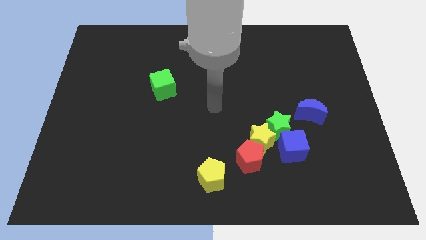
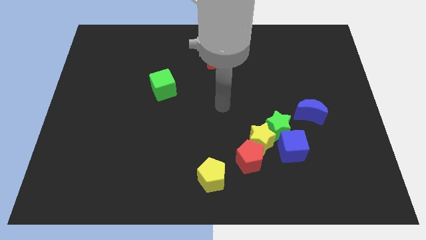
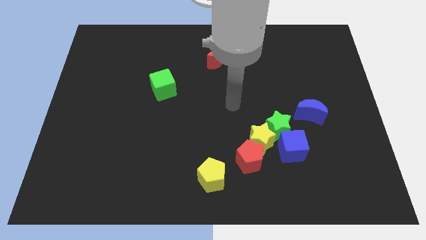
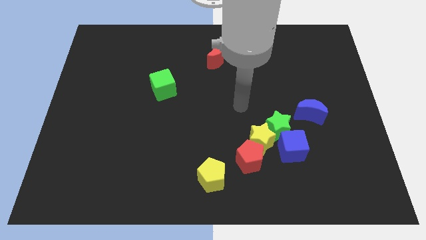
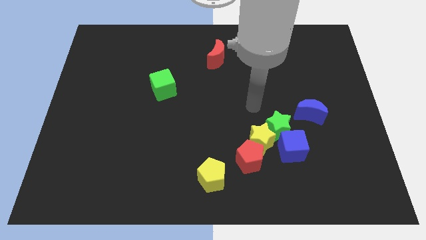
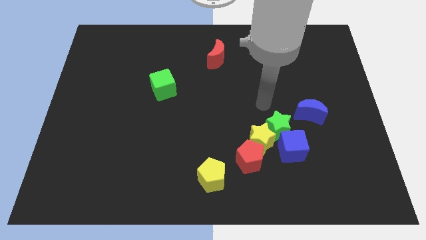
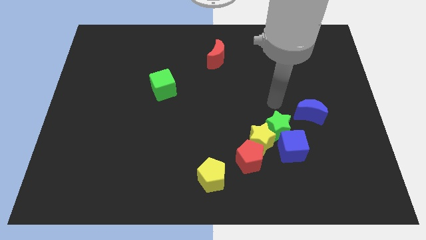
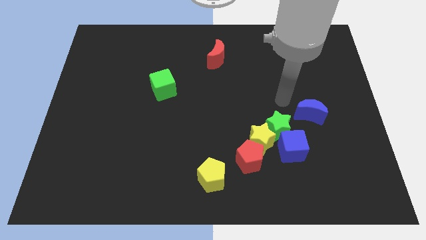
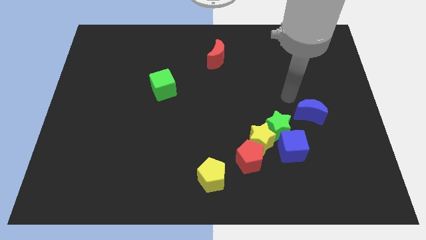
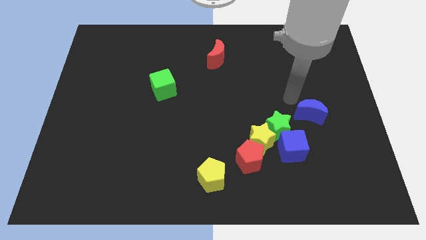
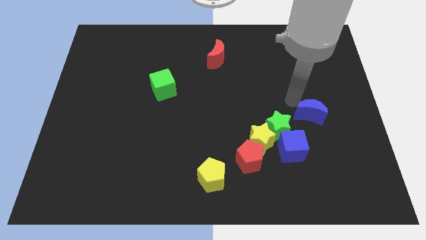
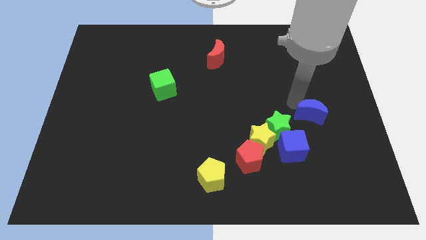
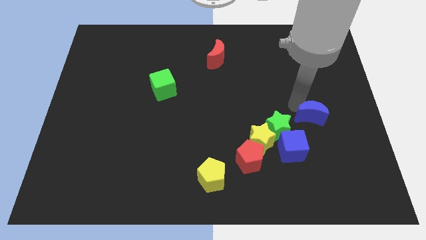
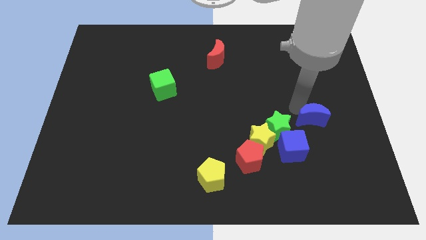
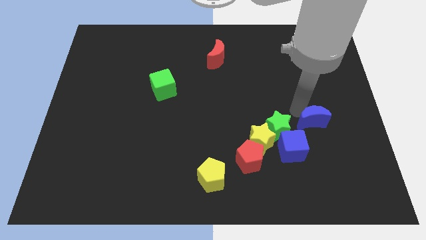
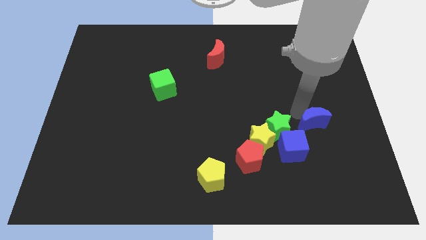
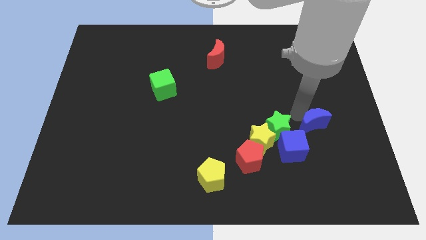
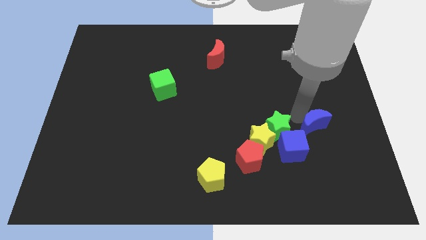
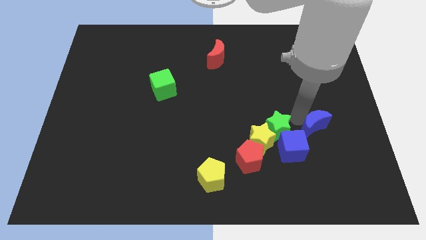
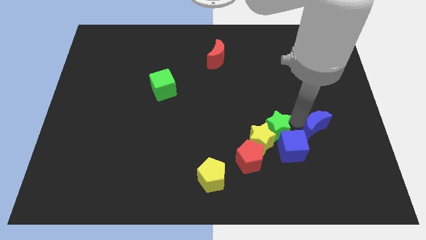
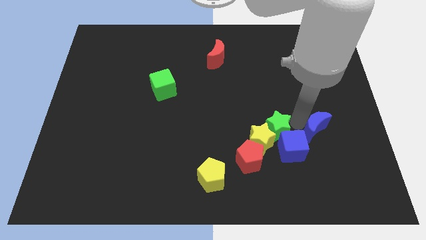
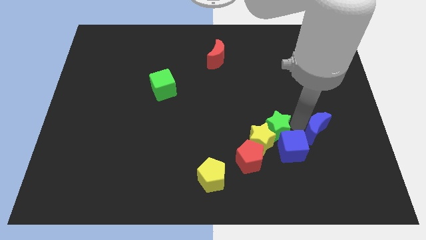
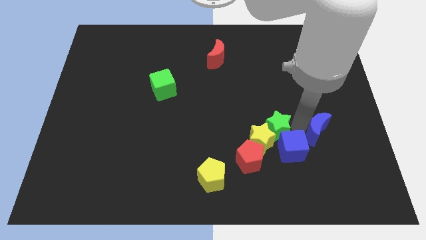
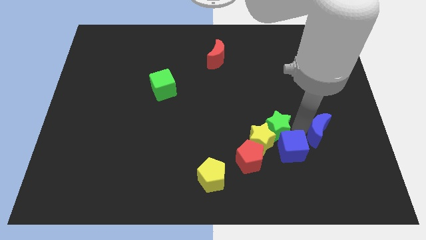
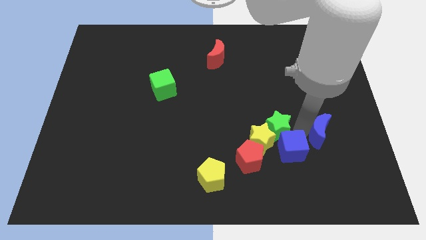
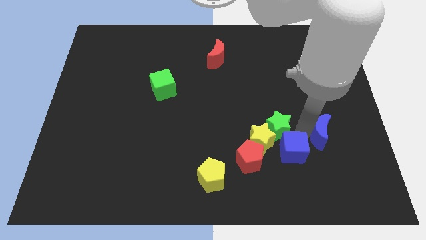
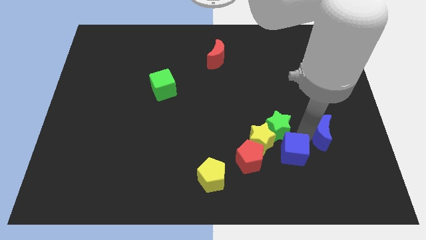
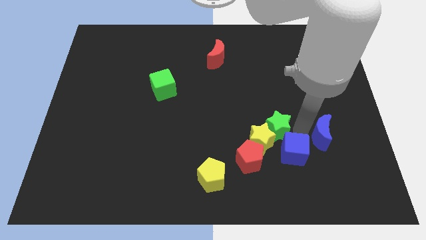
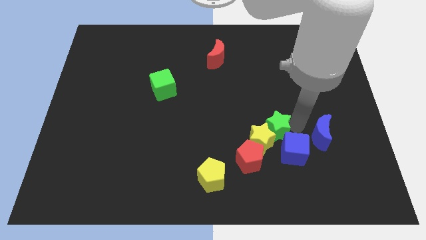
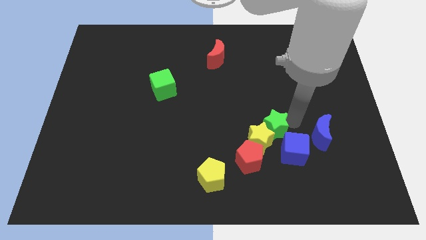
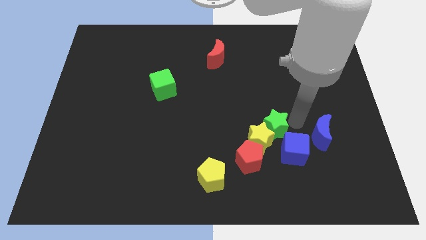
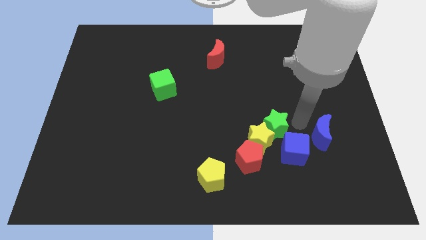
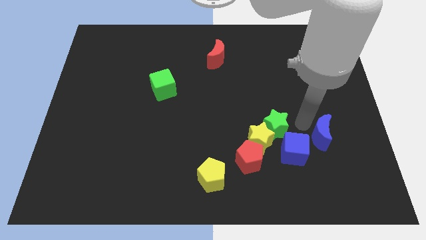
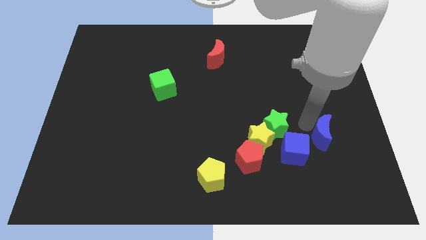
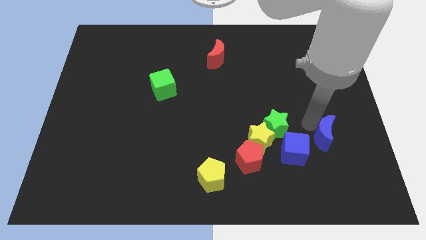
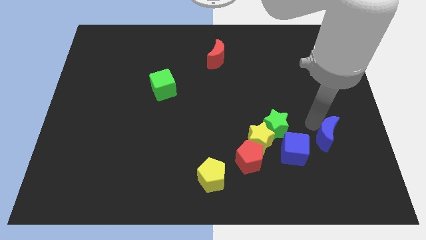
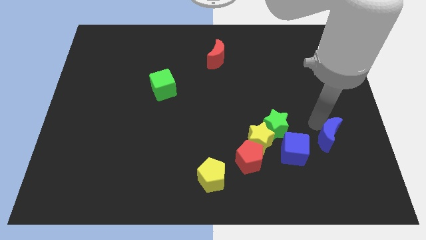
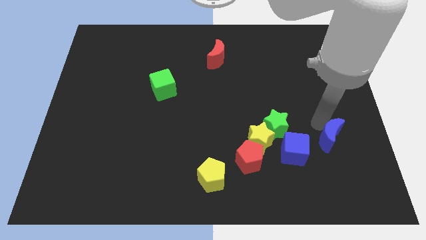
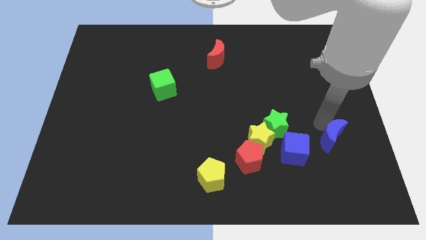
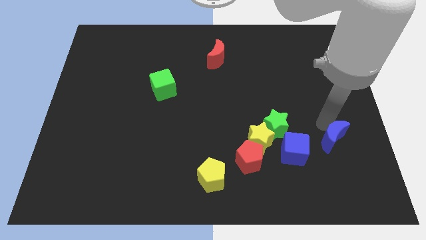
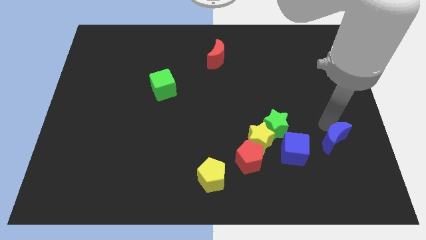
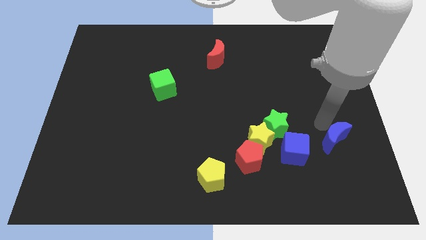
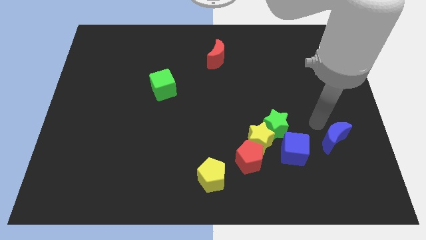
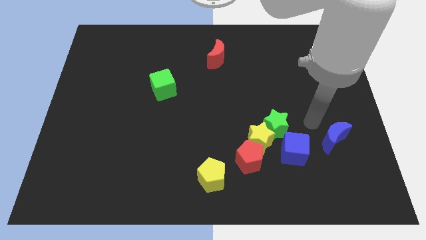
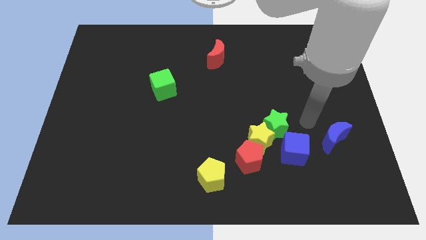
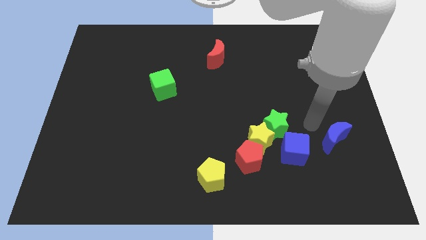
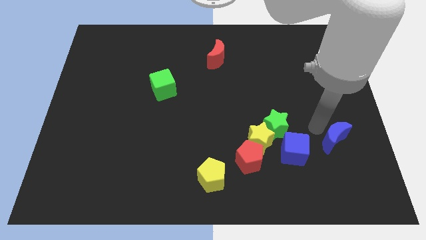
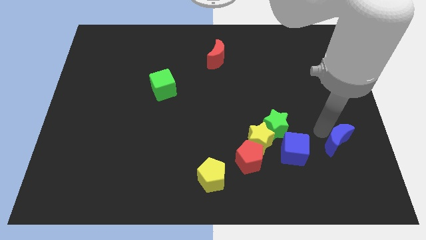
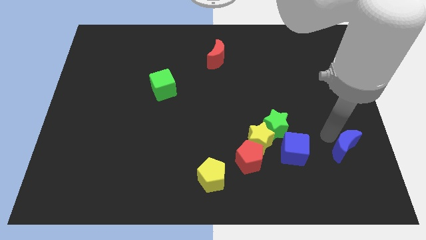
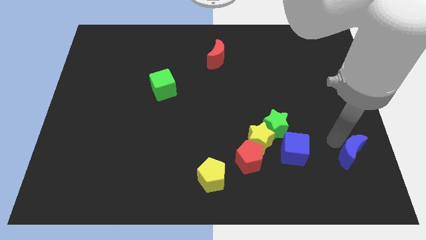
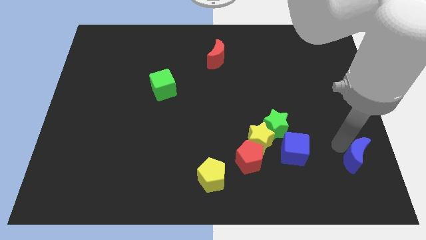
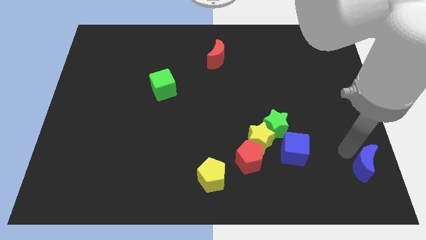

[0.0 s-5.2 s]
slide the blue moon to the lower right corner

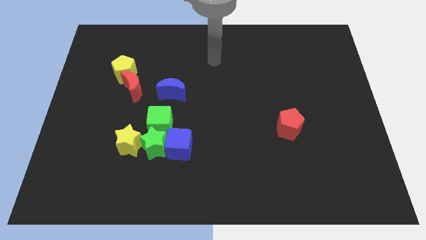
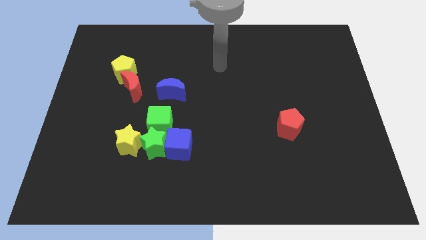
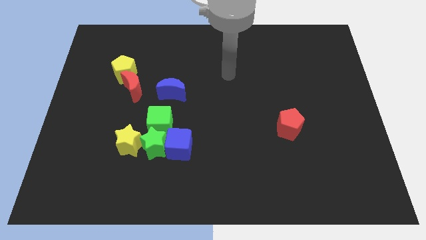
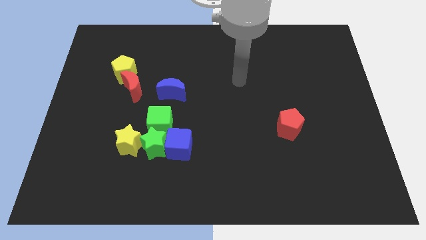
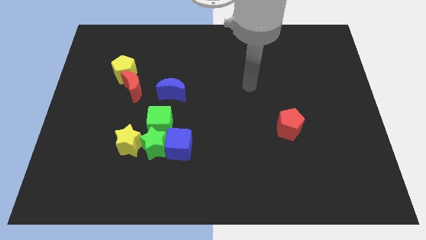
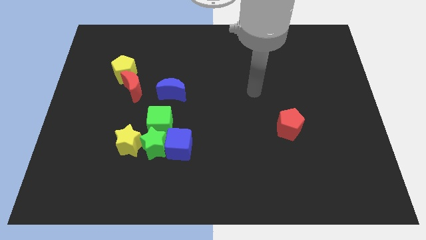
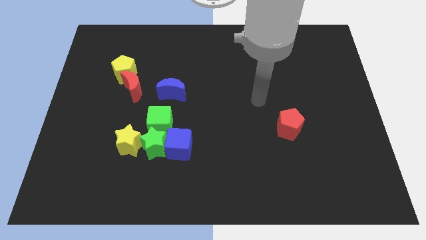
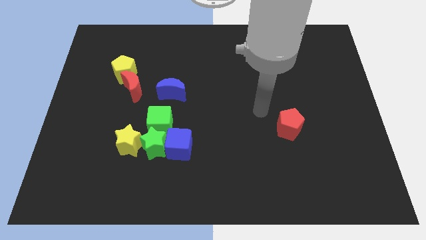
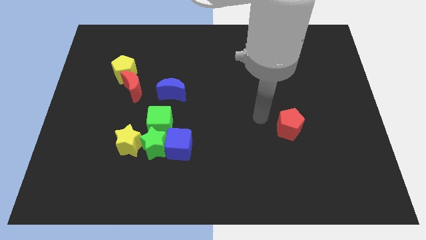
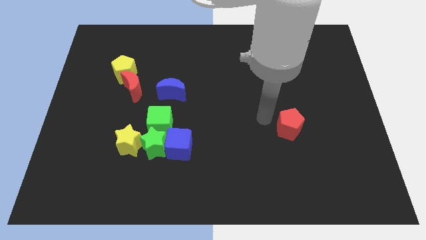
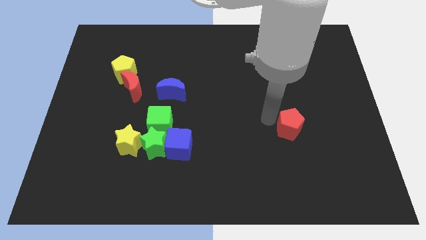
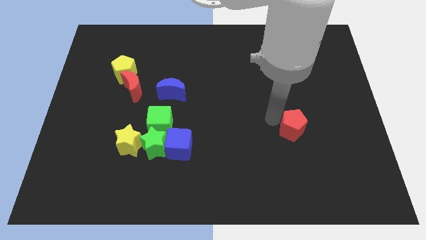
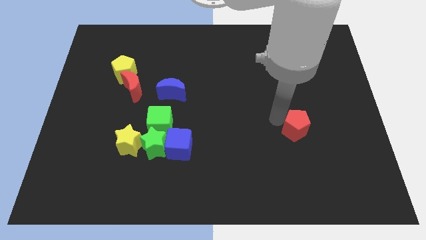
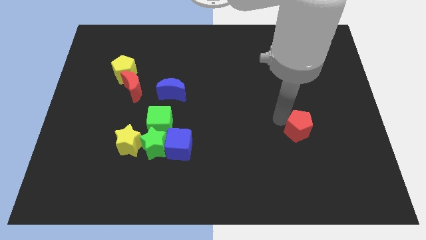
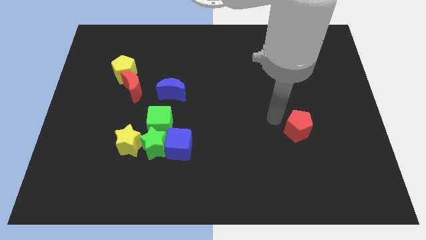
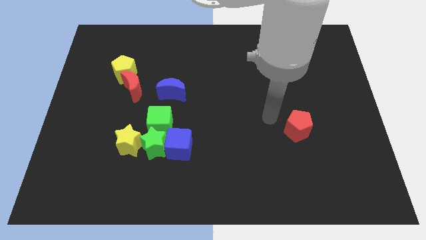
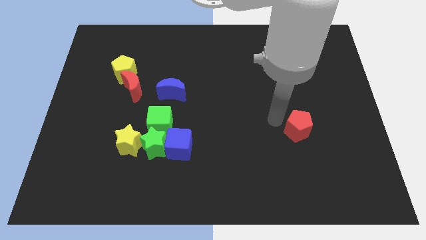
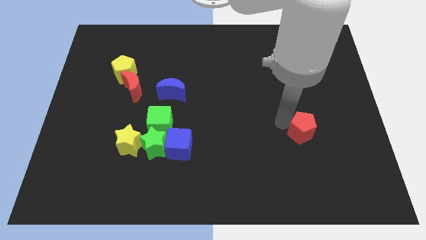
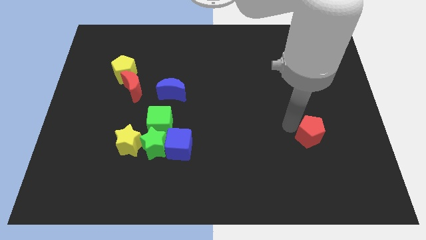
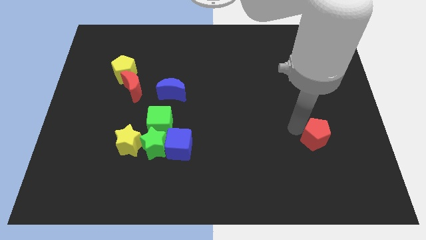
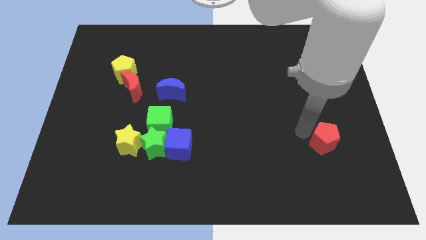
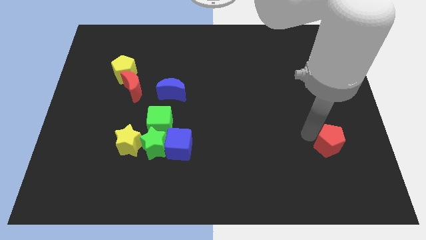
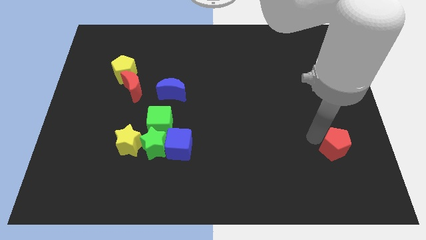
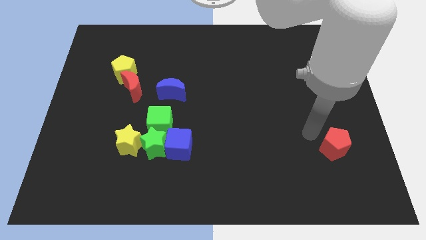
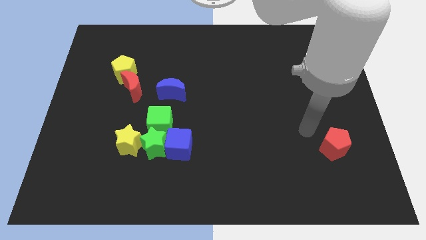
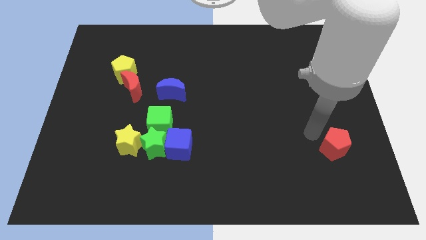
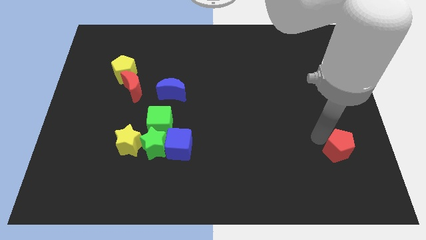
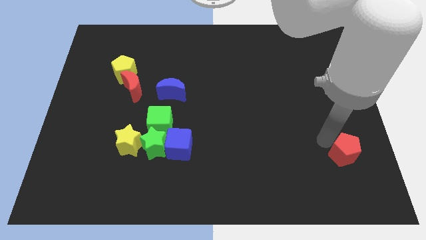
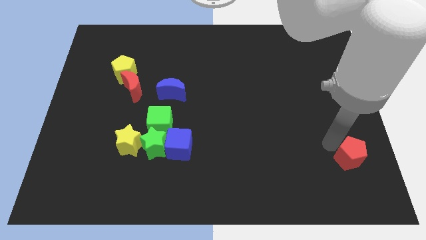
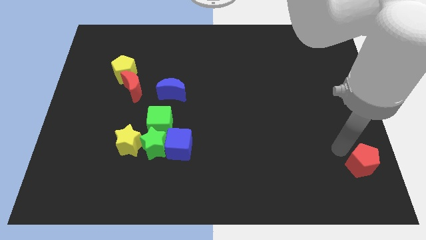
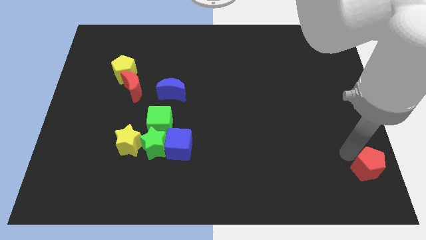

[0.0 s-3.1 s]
slide the red pentagon to the lower right corner
